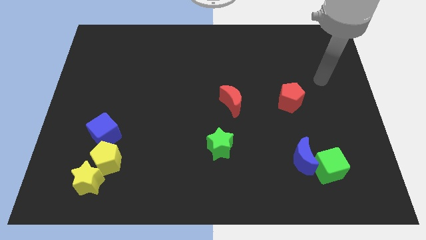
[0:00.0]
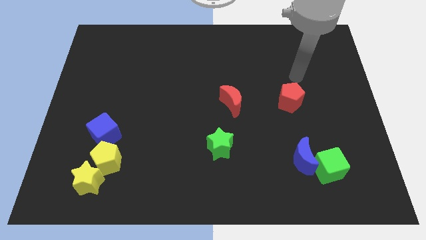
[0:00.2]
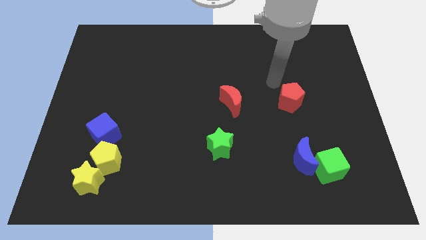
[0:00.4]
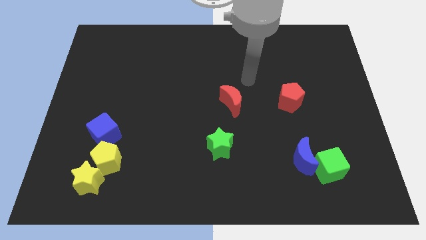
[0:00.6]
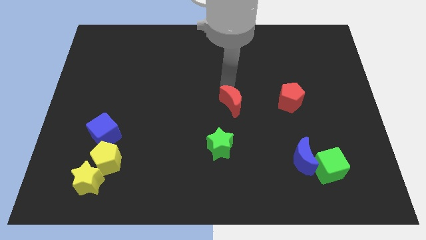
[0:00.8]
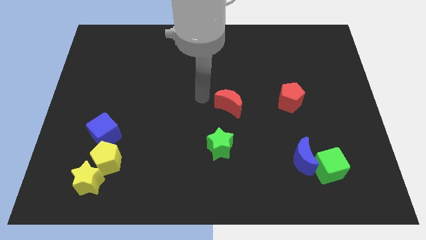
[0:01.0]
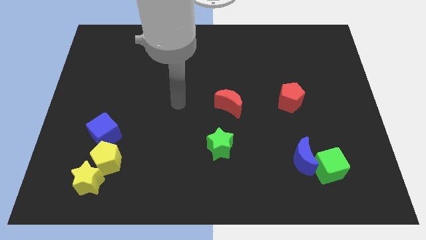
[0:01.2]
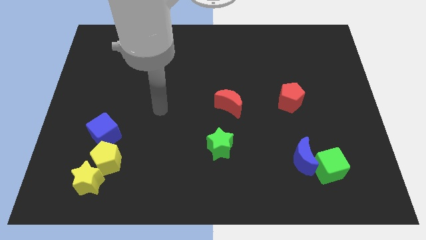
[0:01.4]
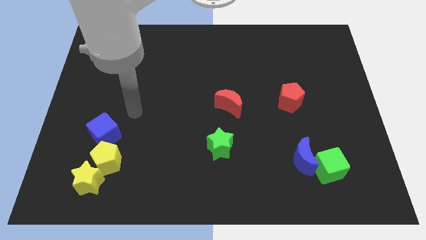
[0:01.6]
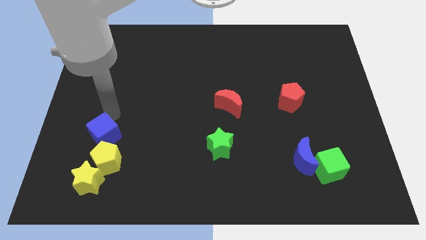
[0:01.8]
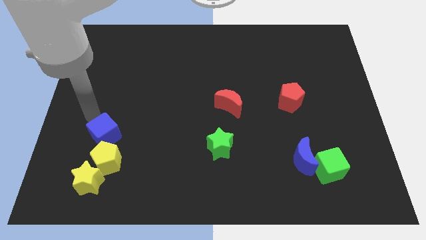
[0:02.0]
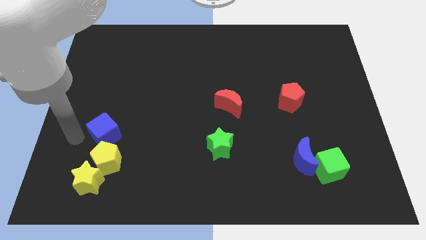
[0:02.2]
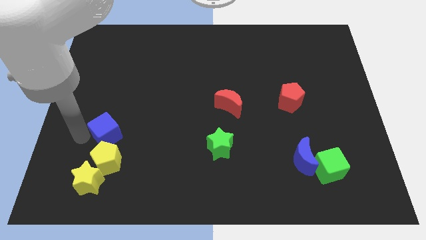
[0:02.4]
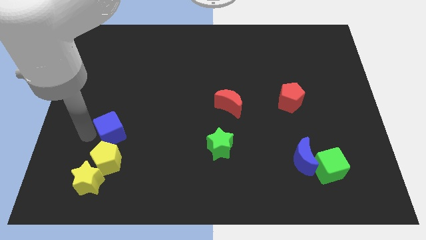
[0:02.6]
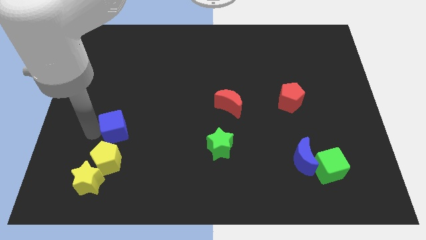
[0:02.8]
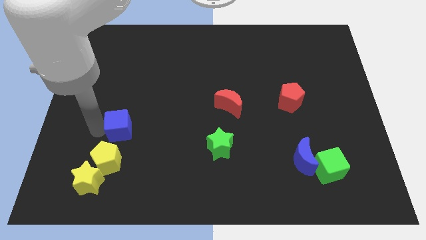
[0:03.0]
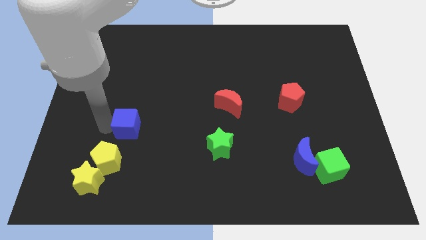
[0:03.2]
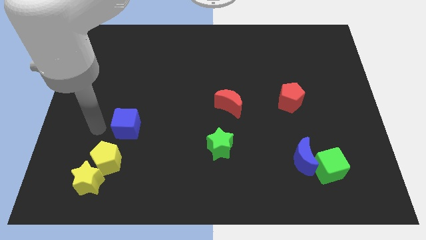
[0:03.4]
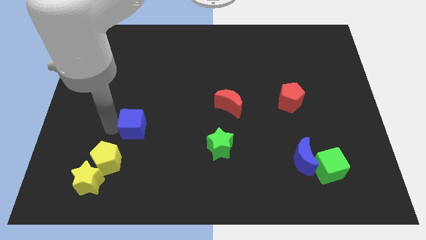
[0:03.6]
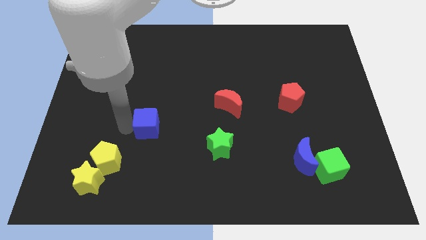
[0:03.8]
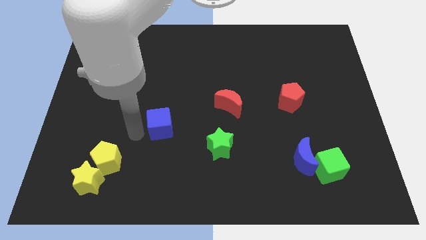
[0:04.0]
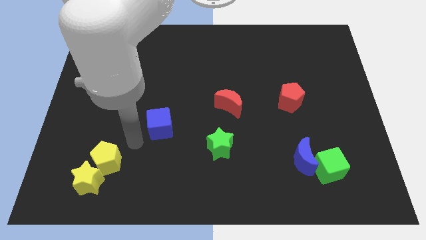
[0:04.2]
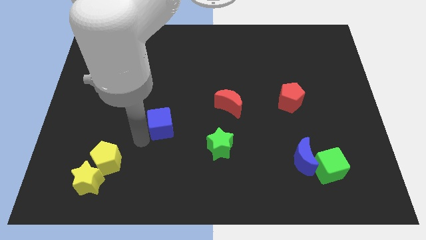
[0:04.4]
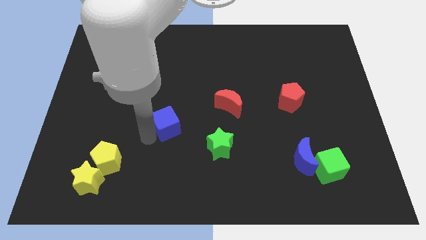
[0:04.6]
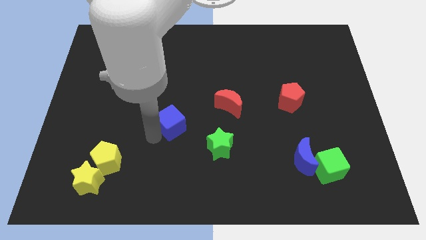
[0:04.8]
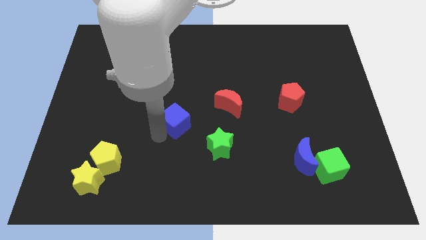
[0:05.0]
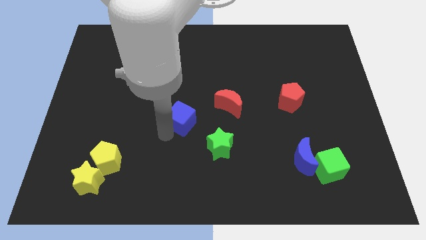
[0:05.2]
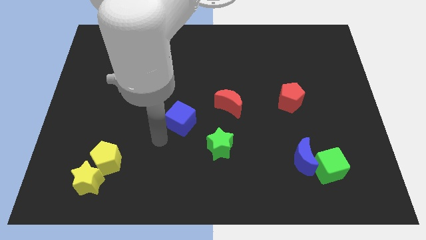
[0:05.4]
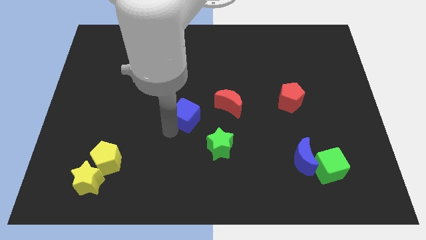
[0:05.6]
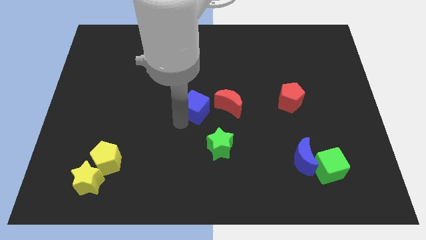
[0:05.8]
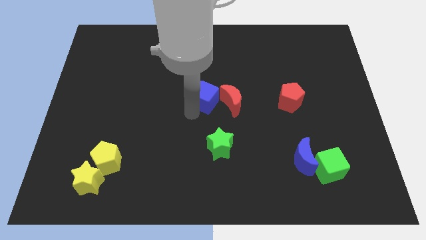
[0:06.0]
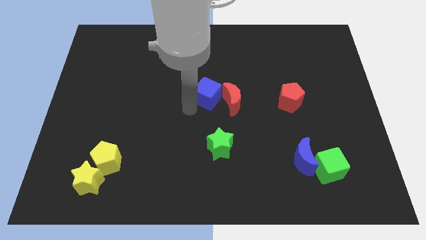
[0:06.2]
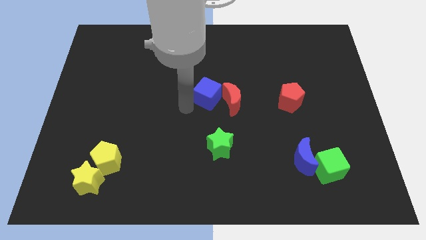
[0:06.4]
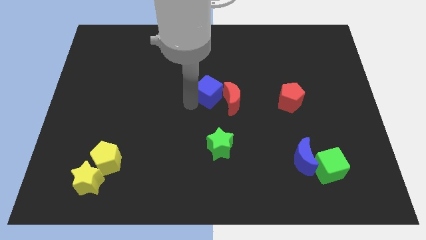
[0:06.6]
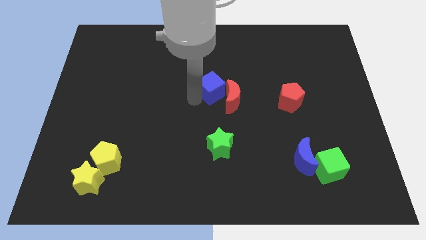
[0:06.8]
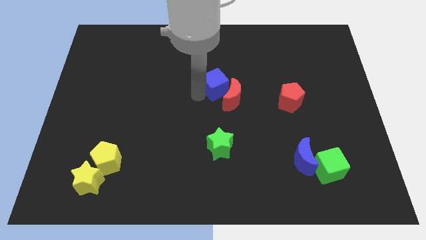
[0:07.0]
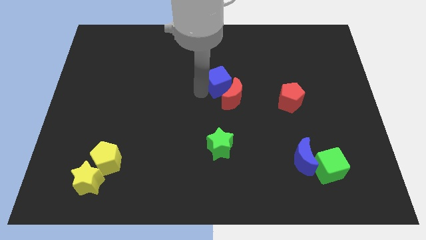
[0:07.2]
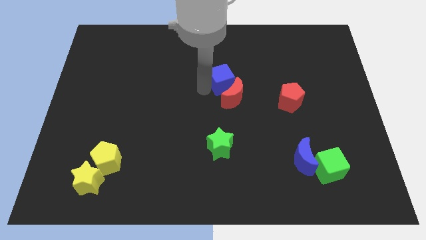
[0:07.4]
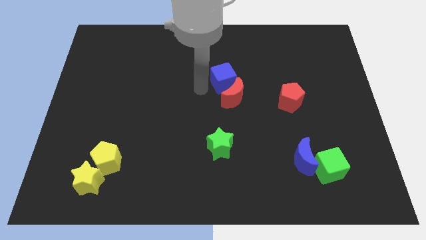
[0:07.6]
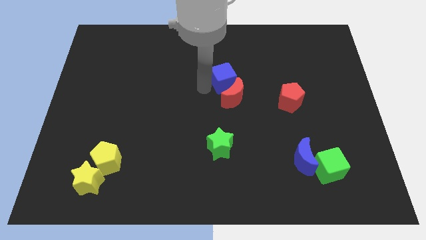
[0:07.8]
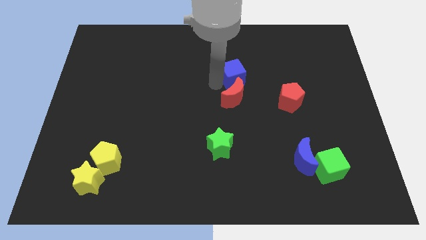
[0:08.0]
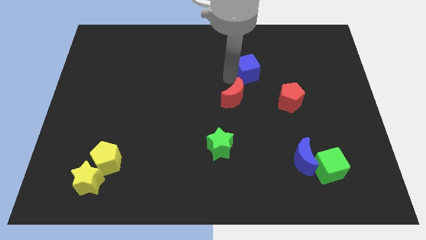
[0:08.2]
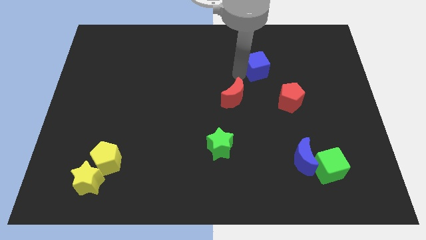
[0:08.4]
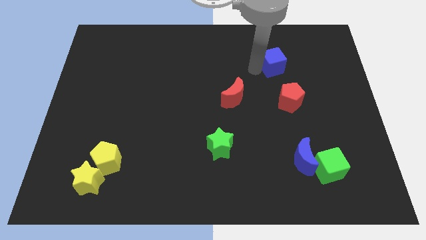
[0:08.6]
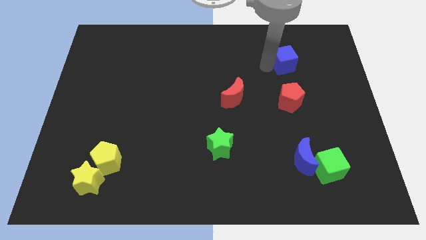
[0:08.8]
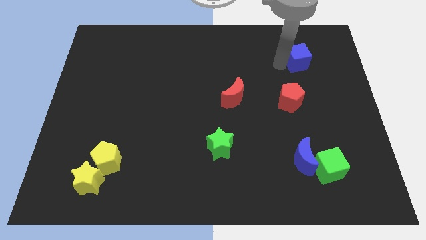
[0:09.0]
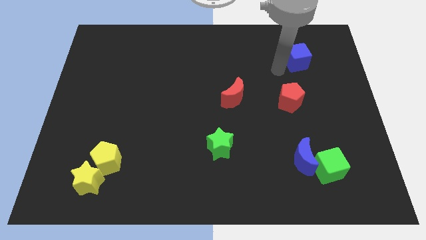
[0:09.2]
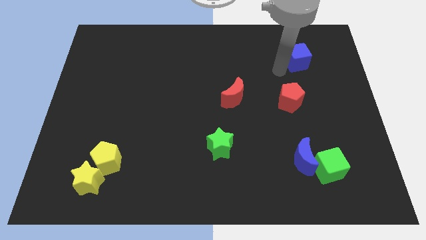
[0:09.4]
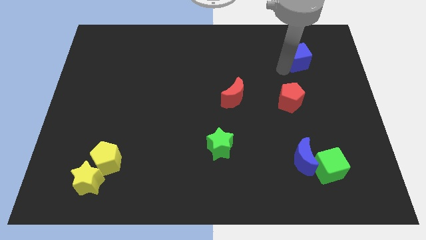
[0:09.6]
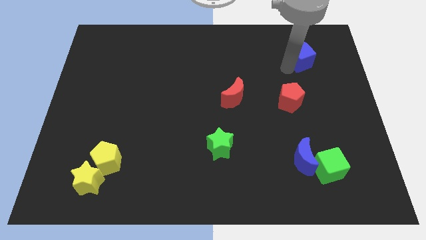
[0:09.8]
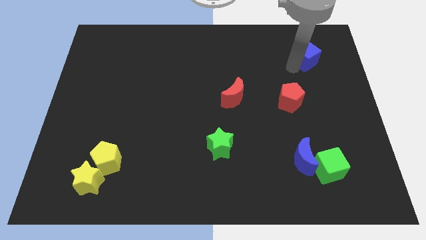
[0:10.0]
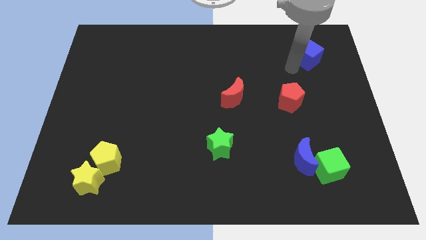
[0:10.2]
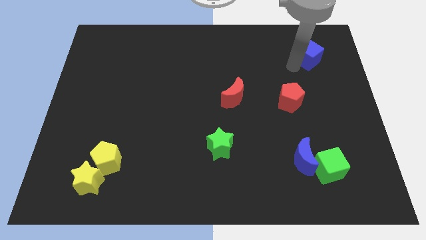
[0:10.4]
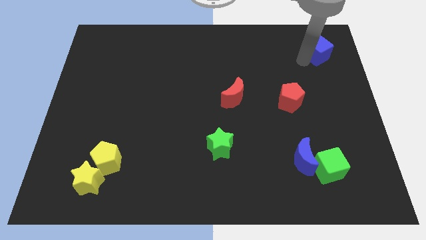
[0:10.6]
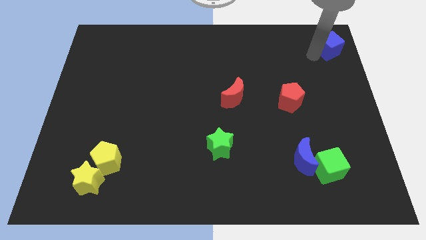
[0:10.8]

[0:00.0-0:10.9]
move the blue cube to the top right

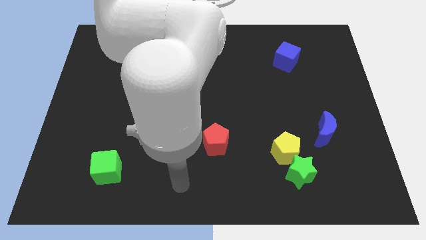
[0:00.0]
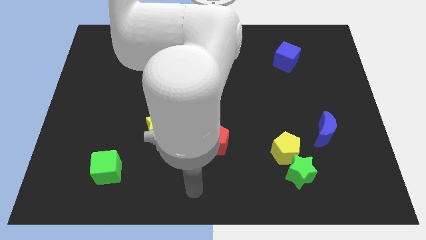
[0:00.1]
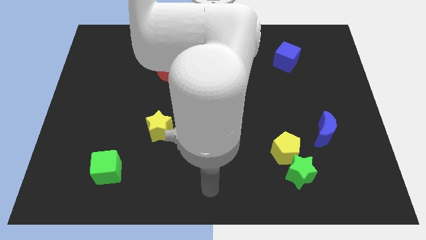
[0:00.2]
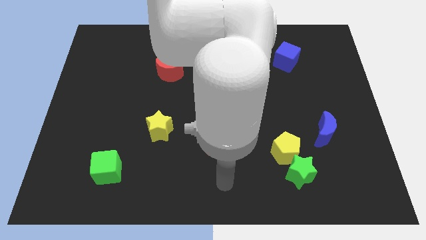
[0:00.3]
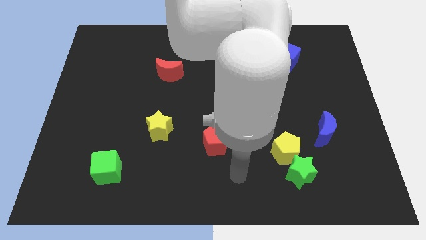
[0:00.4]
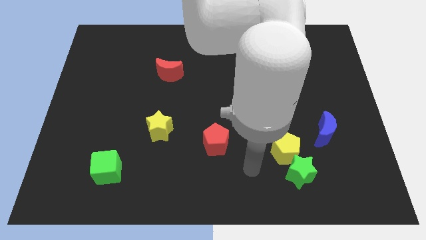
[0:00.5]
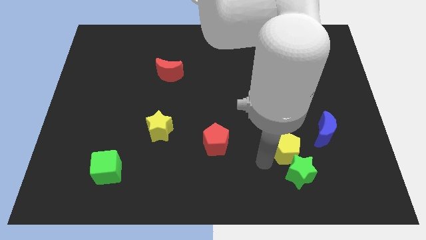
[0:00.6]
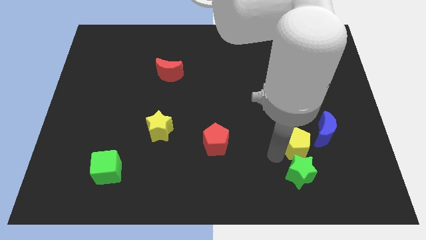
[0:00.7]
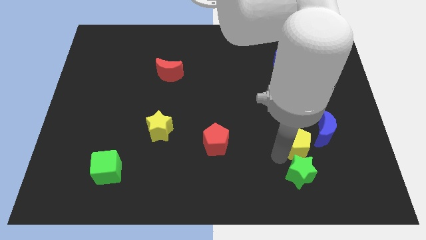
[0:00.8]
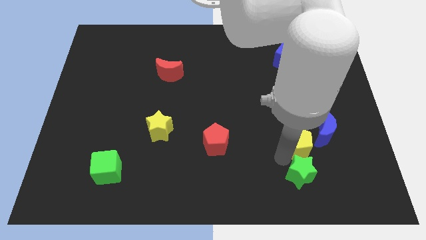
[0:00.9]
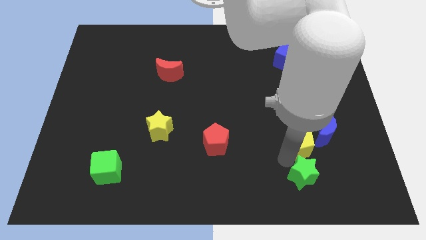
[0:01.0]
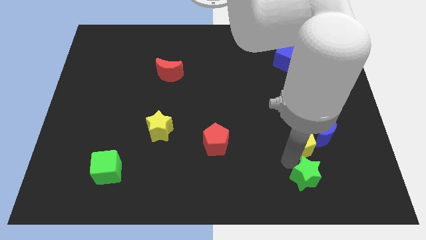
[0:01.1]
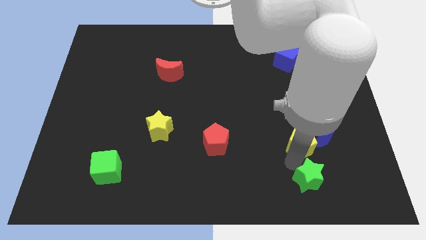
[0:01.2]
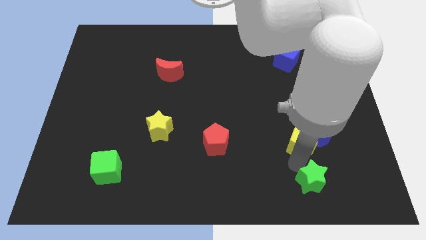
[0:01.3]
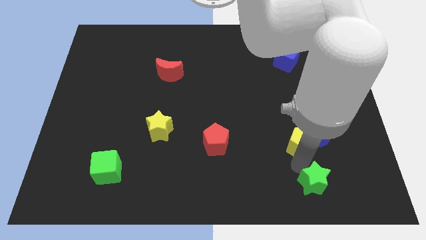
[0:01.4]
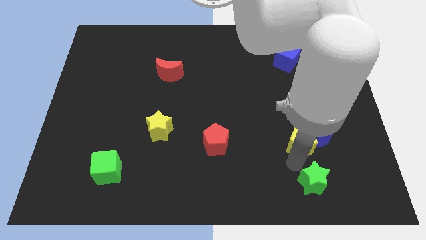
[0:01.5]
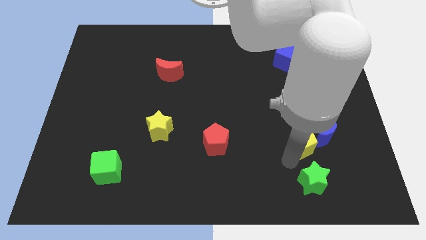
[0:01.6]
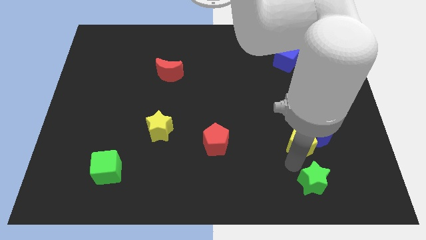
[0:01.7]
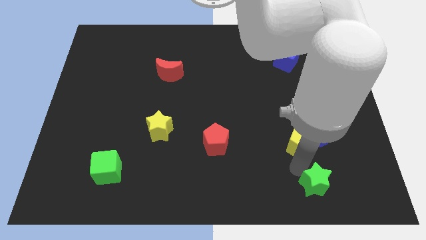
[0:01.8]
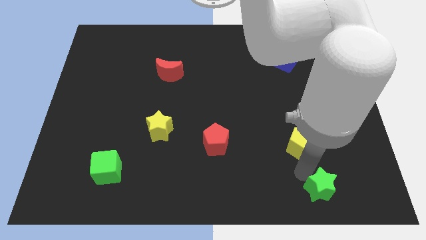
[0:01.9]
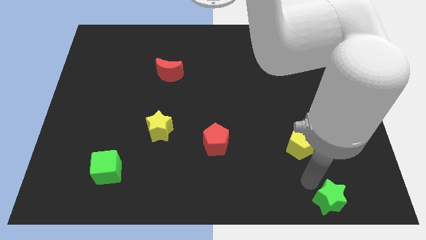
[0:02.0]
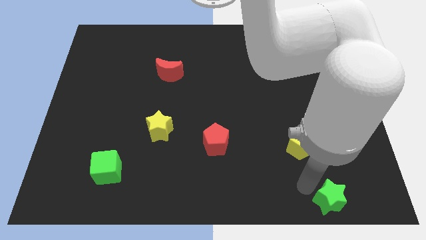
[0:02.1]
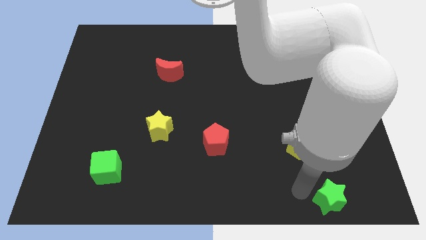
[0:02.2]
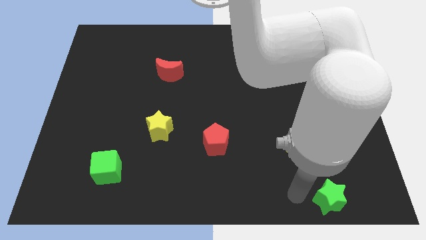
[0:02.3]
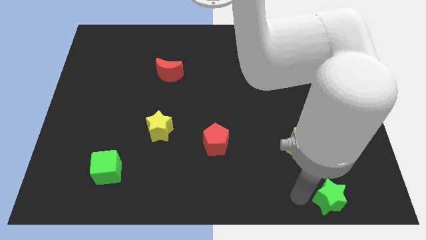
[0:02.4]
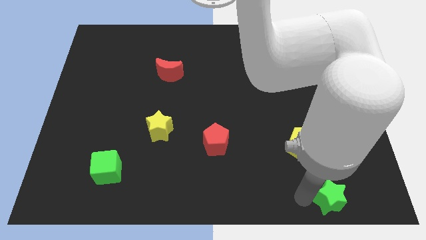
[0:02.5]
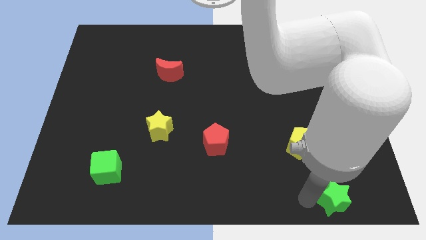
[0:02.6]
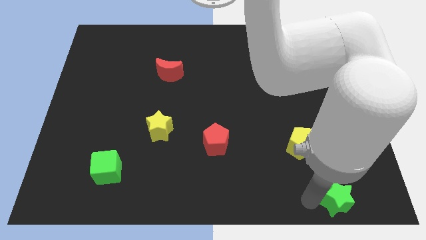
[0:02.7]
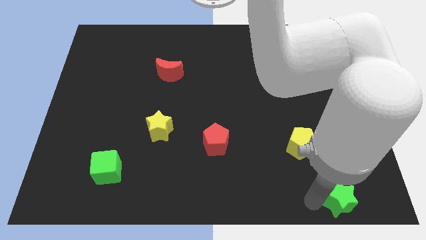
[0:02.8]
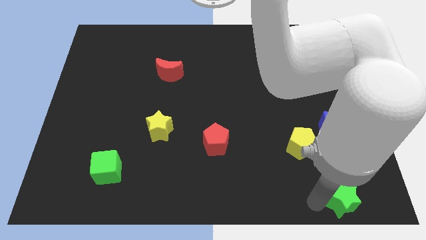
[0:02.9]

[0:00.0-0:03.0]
slide the green star to the lower right corner
